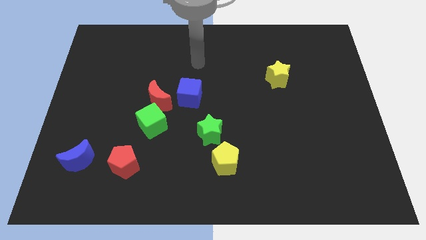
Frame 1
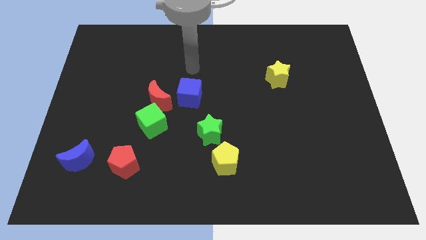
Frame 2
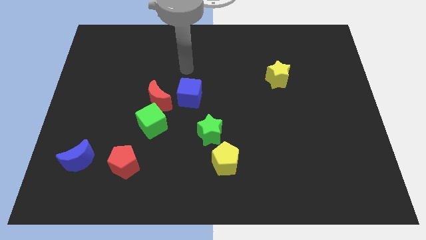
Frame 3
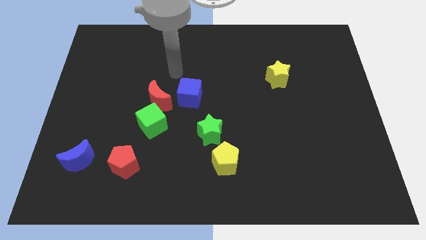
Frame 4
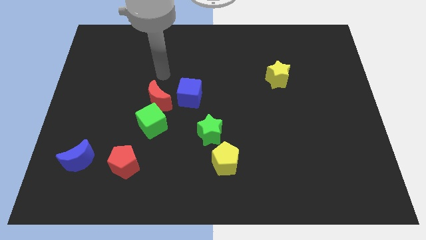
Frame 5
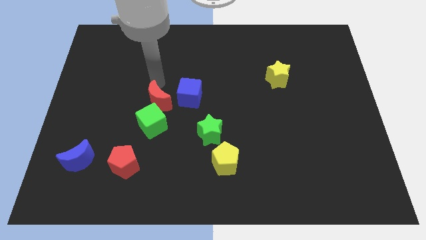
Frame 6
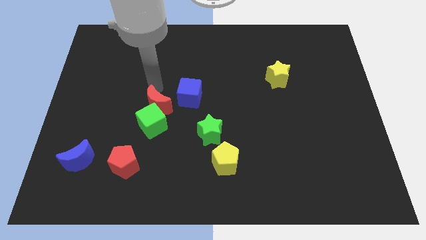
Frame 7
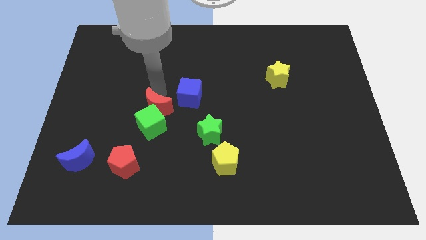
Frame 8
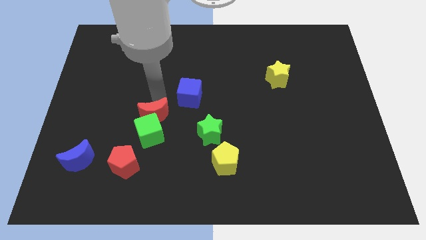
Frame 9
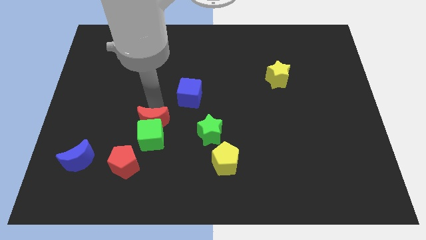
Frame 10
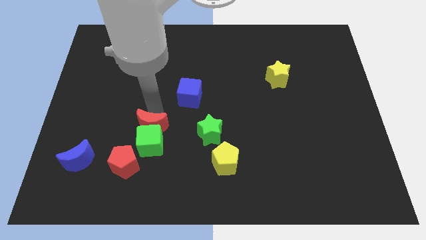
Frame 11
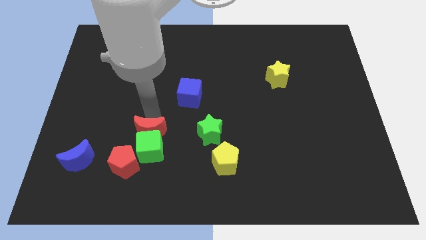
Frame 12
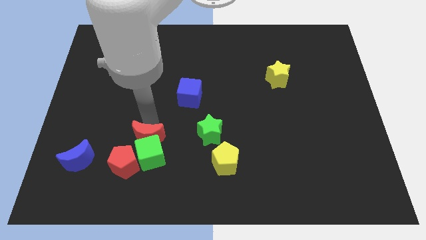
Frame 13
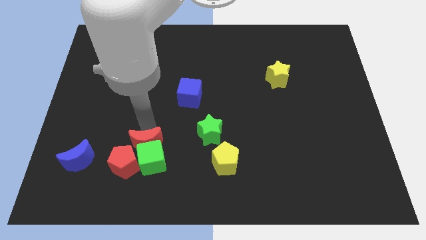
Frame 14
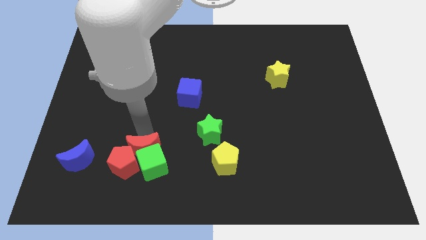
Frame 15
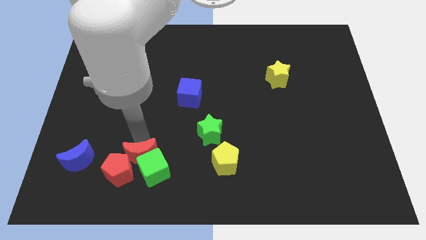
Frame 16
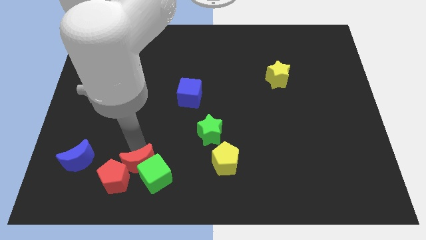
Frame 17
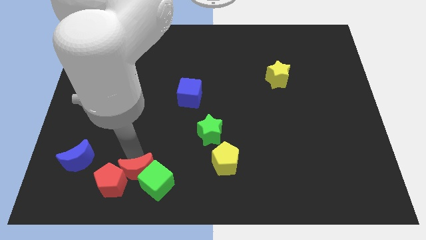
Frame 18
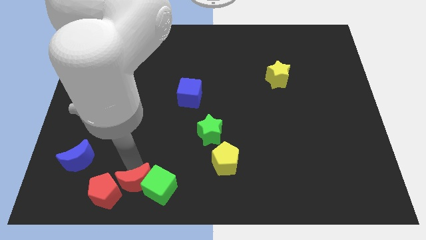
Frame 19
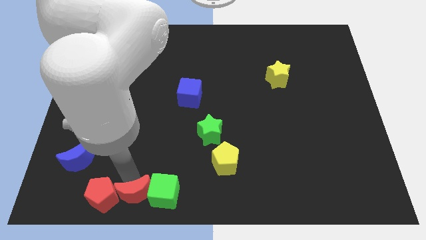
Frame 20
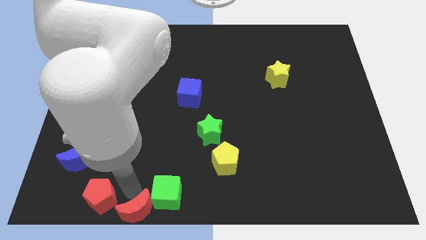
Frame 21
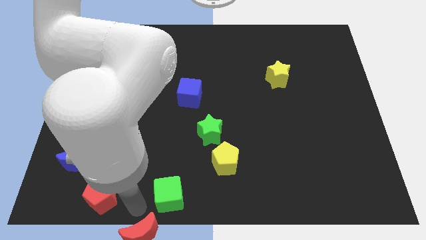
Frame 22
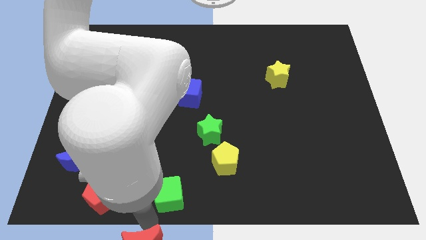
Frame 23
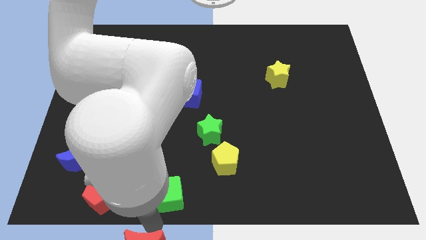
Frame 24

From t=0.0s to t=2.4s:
separate the green cube from the red moon

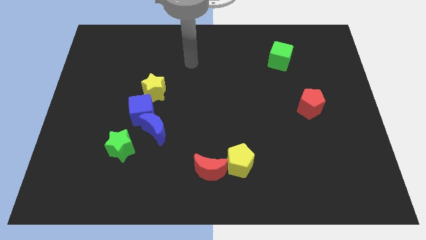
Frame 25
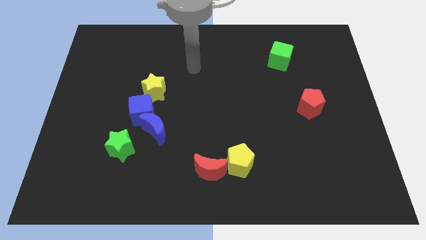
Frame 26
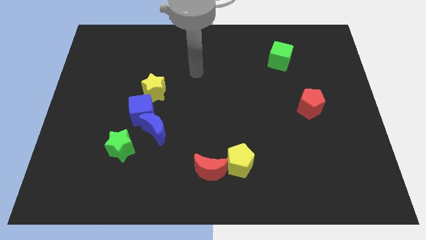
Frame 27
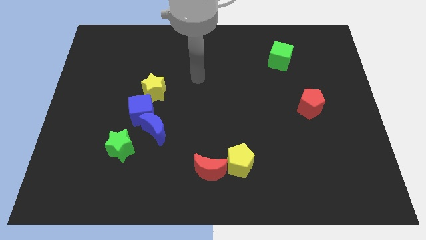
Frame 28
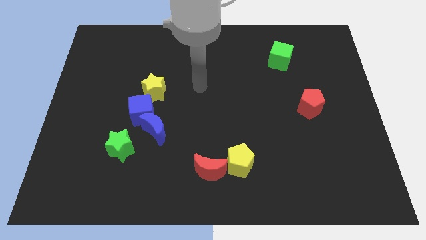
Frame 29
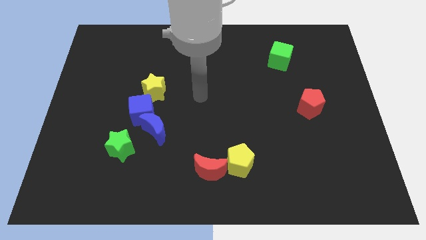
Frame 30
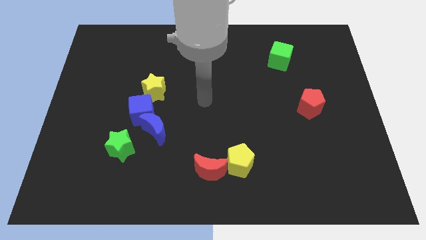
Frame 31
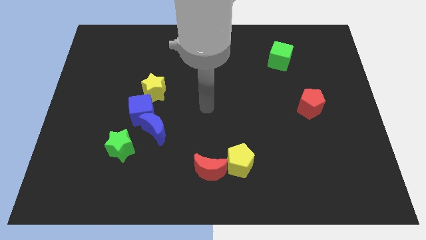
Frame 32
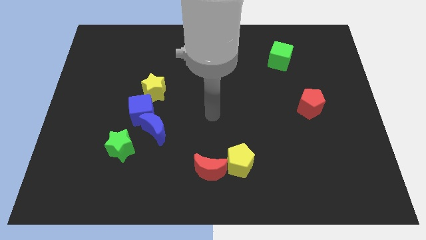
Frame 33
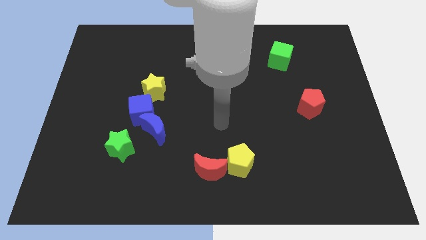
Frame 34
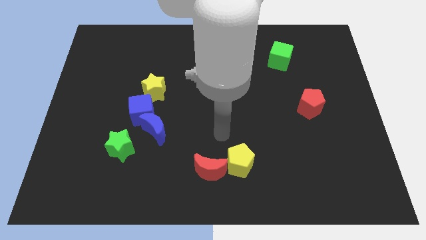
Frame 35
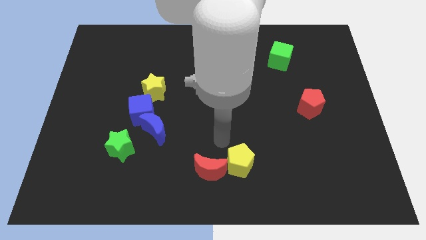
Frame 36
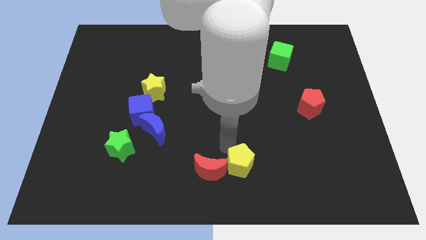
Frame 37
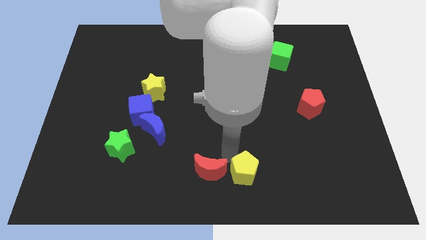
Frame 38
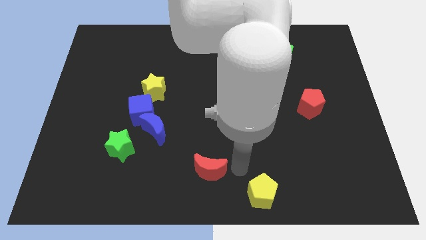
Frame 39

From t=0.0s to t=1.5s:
pull the red moon apart from the yellow pentagon

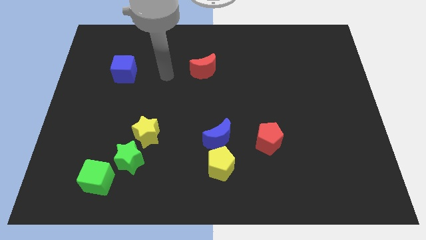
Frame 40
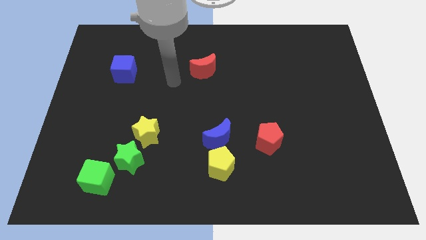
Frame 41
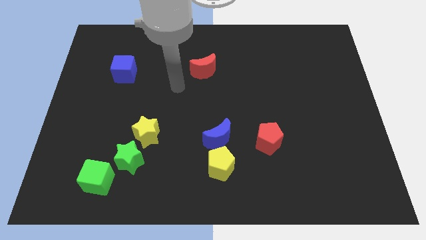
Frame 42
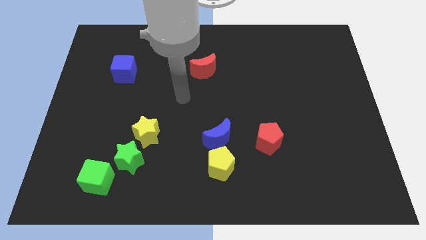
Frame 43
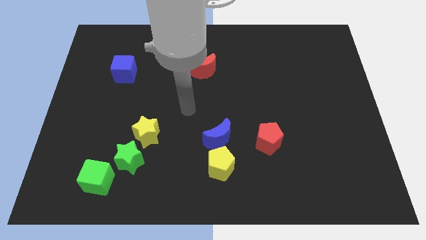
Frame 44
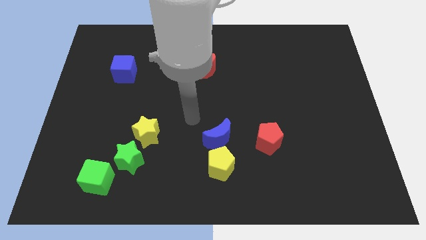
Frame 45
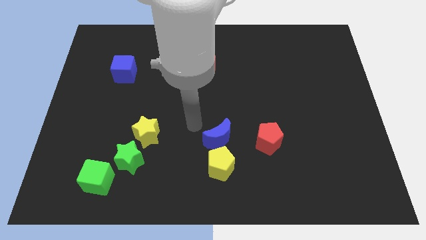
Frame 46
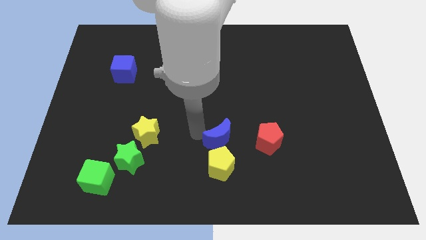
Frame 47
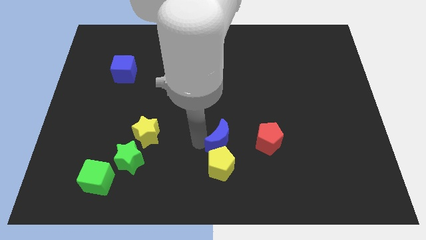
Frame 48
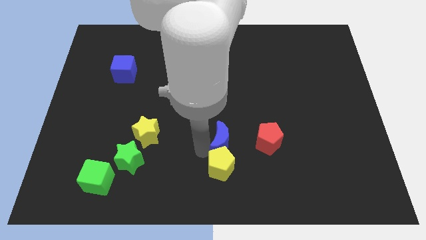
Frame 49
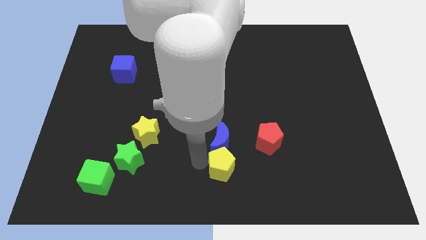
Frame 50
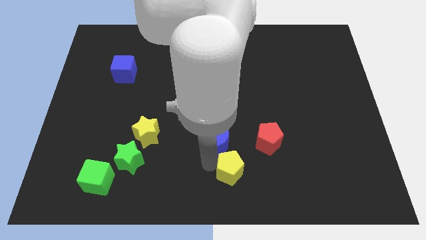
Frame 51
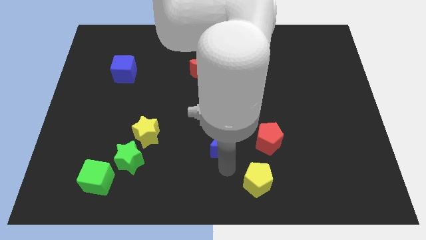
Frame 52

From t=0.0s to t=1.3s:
separate the blue moon from the yellow pentagon

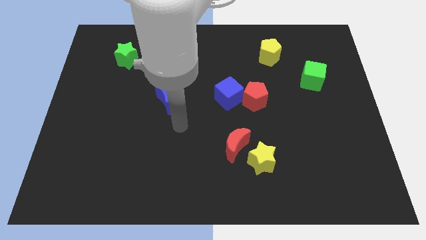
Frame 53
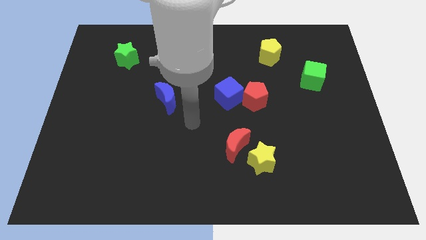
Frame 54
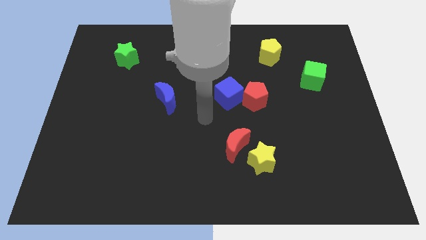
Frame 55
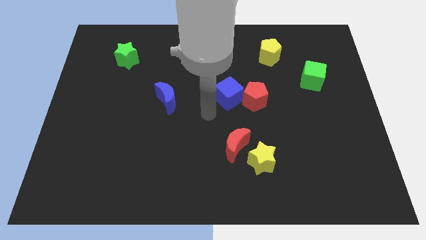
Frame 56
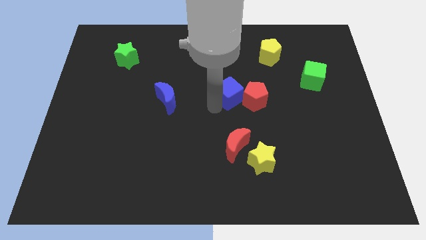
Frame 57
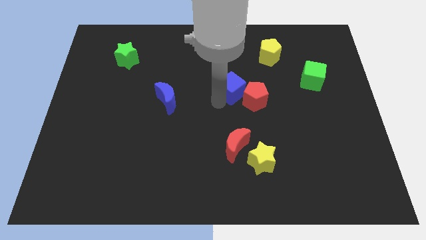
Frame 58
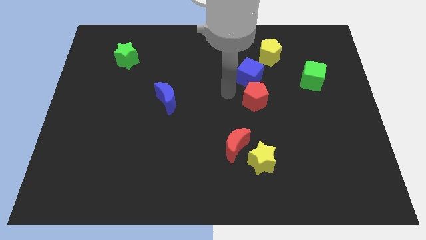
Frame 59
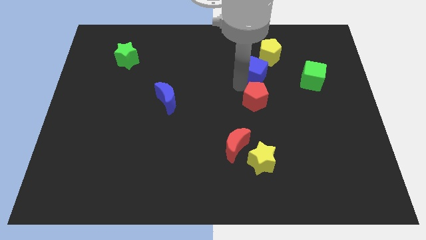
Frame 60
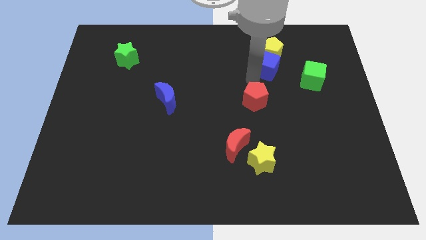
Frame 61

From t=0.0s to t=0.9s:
move the red pentagon away from the blue cube

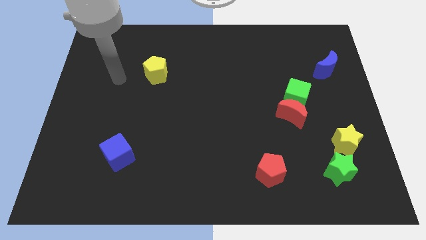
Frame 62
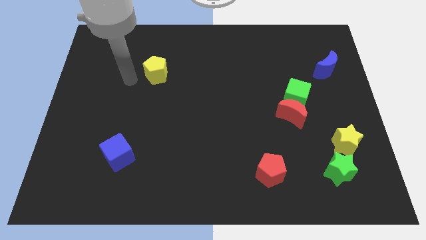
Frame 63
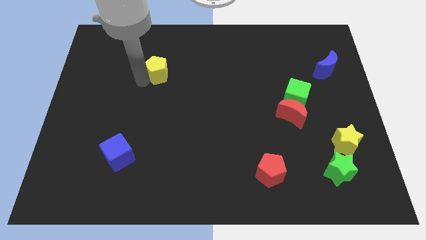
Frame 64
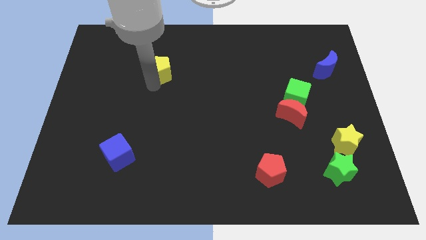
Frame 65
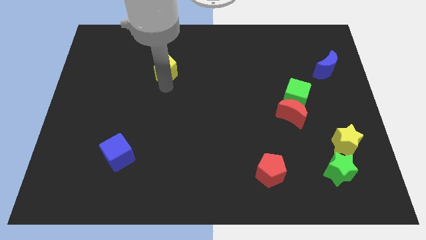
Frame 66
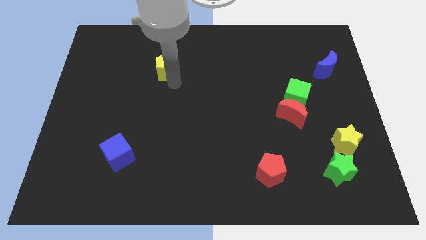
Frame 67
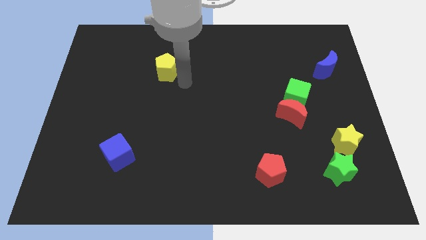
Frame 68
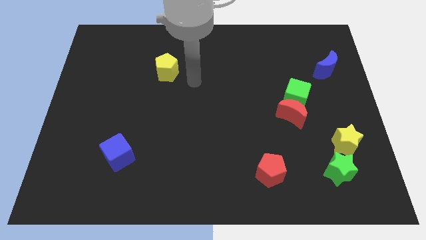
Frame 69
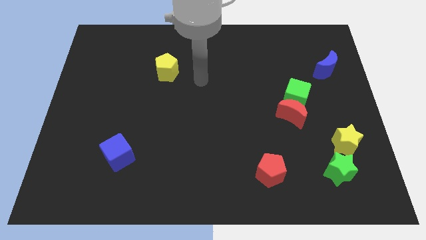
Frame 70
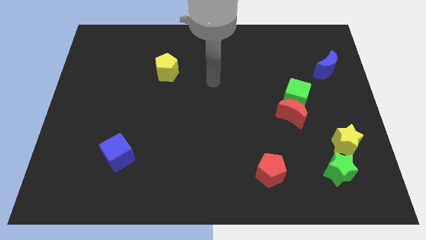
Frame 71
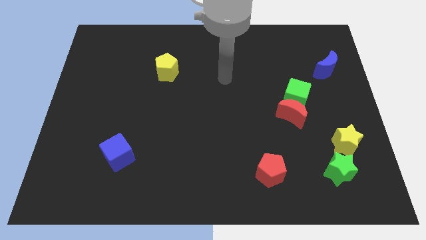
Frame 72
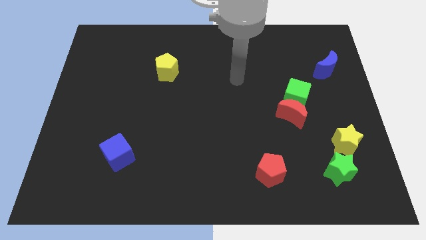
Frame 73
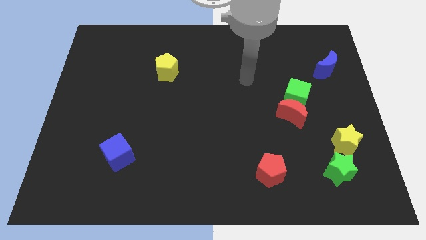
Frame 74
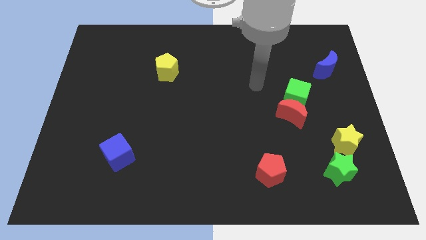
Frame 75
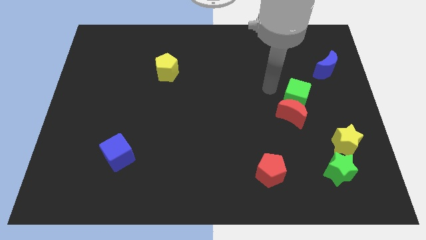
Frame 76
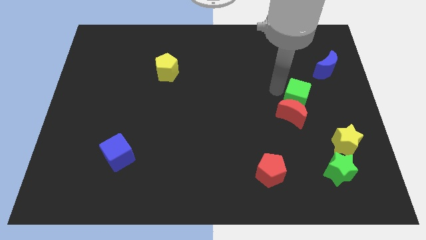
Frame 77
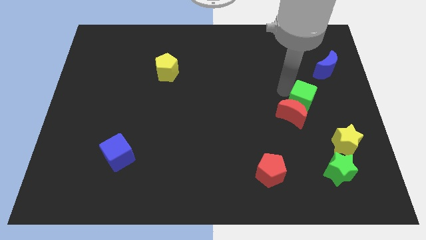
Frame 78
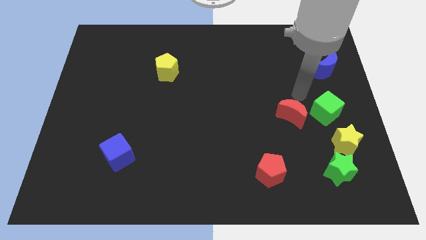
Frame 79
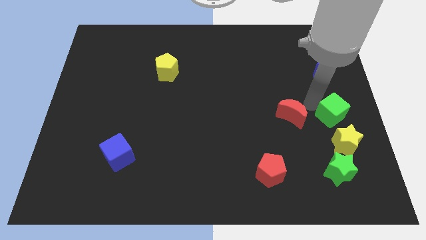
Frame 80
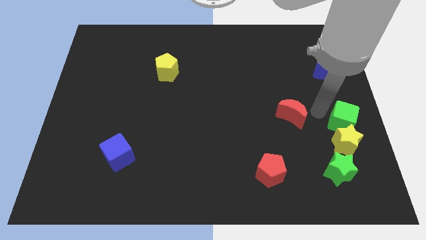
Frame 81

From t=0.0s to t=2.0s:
move the red moon away from the green cube

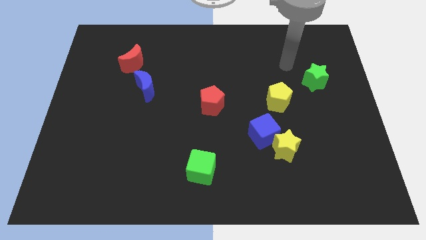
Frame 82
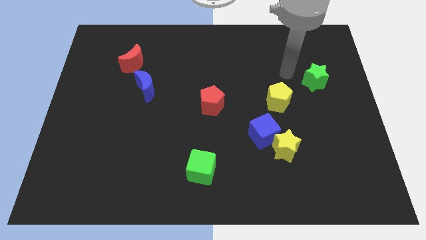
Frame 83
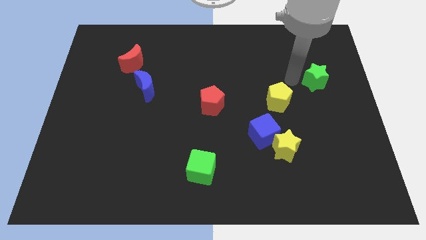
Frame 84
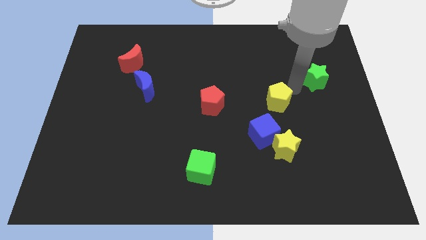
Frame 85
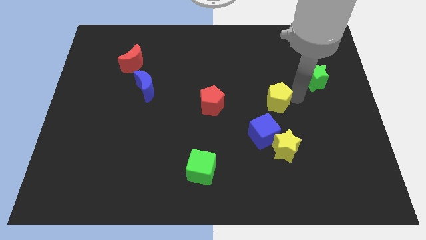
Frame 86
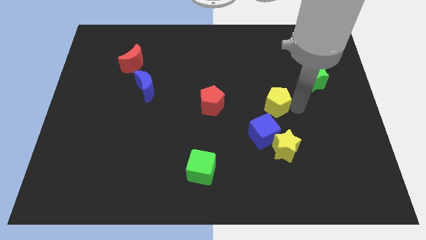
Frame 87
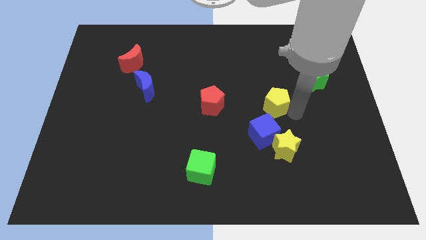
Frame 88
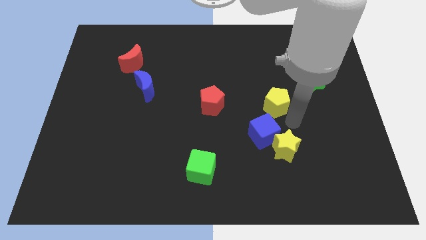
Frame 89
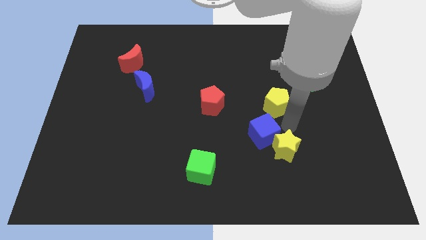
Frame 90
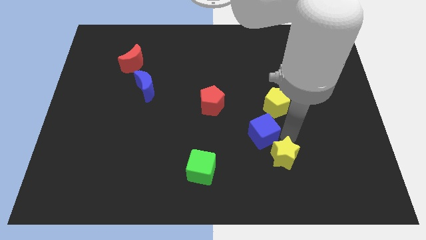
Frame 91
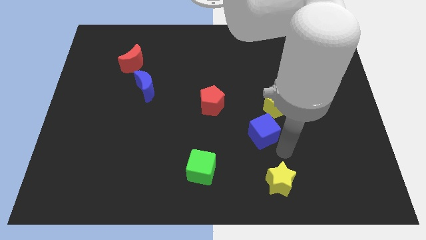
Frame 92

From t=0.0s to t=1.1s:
separate the blue cube from the yellow star
